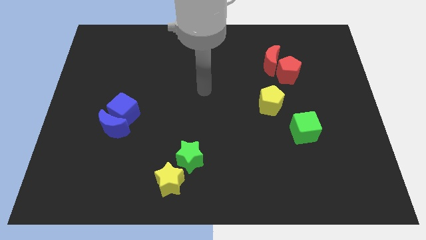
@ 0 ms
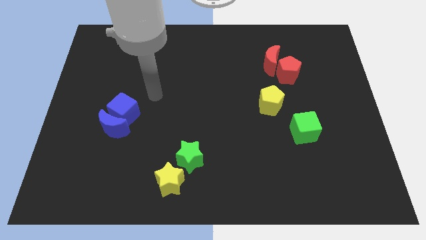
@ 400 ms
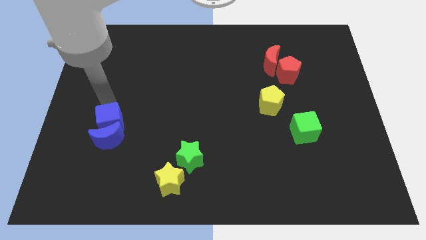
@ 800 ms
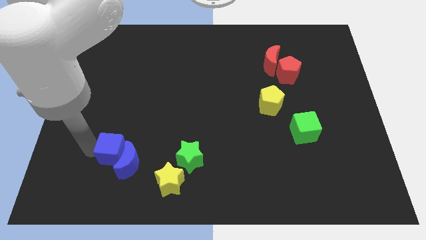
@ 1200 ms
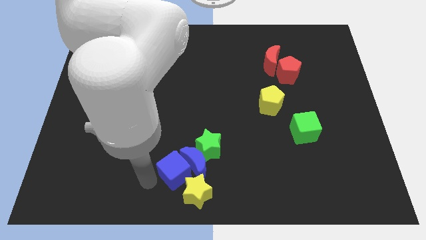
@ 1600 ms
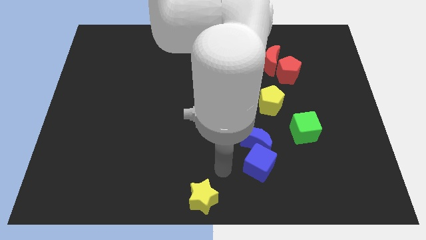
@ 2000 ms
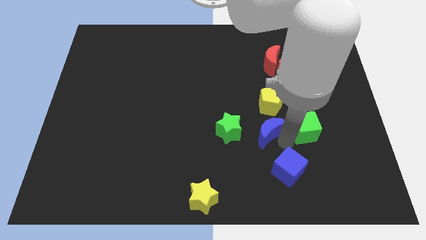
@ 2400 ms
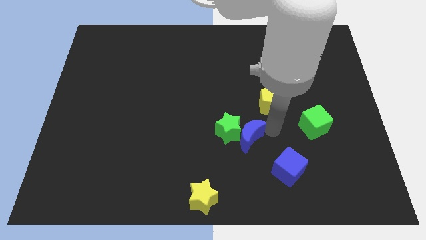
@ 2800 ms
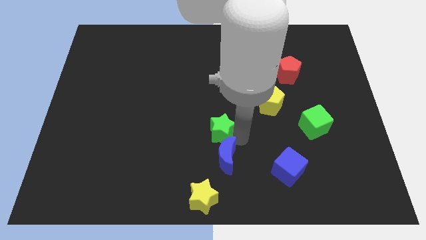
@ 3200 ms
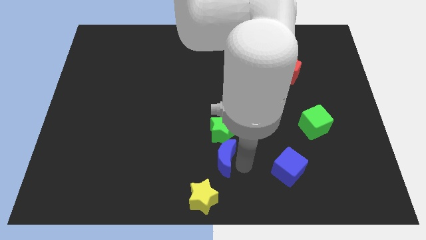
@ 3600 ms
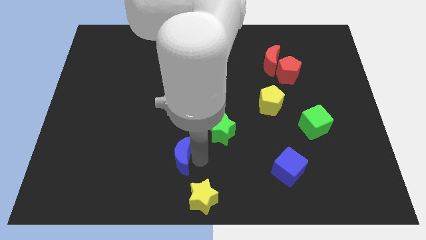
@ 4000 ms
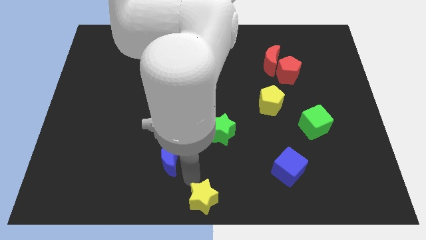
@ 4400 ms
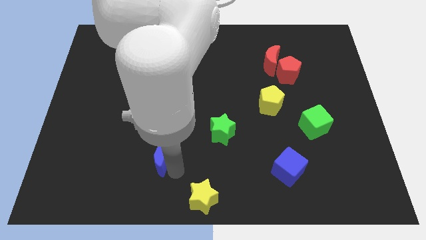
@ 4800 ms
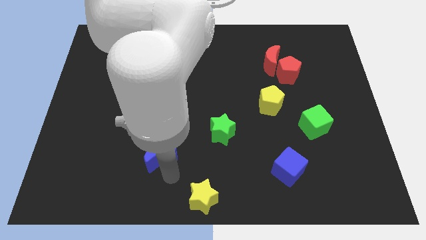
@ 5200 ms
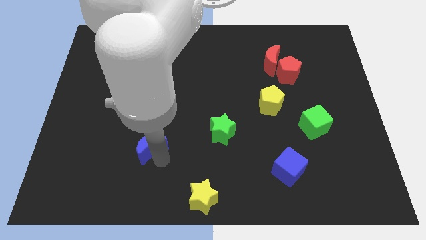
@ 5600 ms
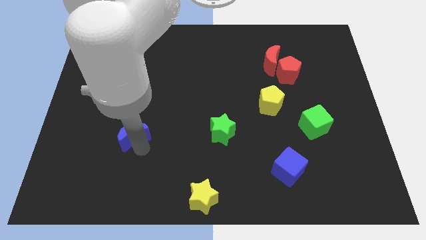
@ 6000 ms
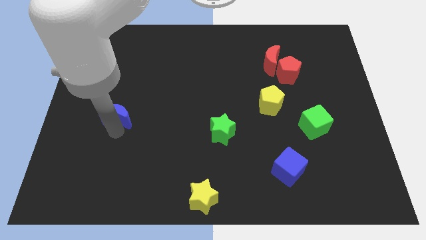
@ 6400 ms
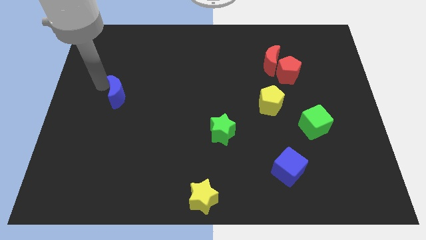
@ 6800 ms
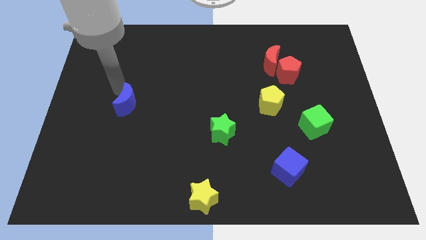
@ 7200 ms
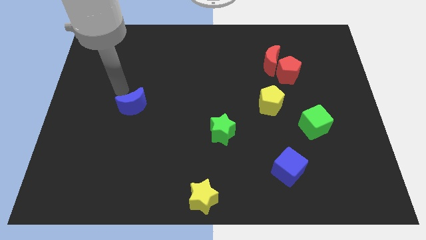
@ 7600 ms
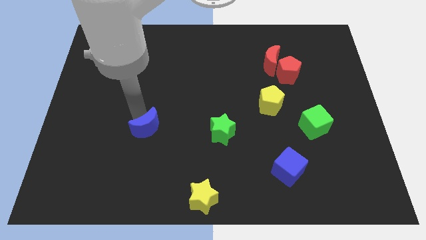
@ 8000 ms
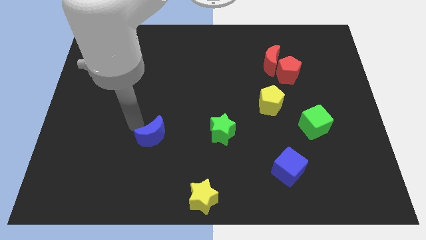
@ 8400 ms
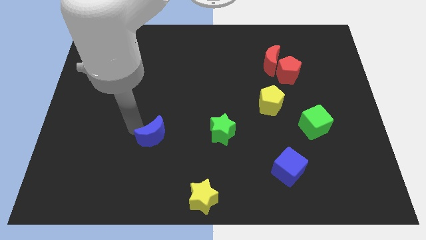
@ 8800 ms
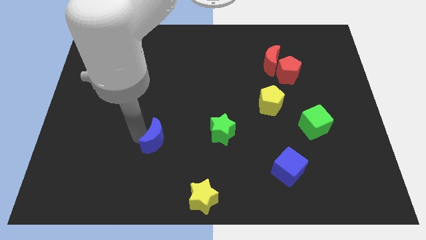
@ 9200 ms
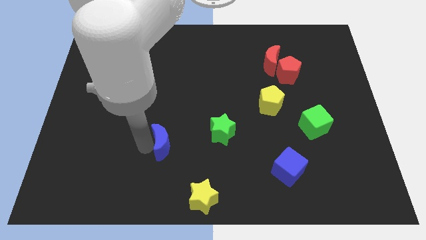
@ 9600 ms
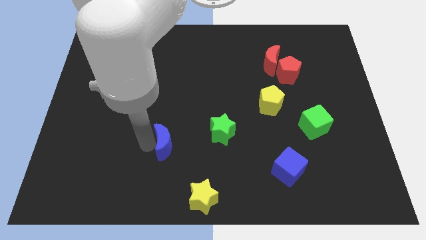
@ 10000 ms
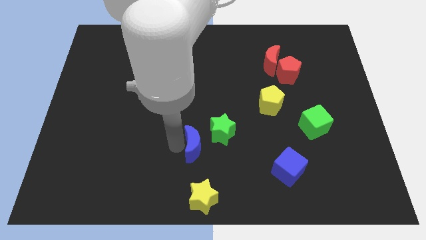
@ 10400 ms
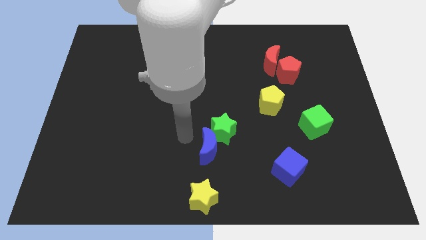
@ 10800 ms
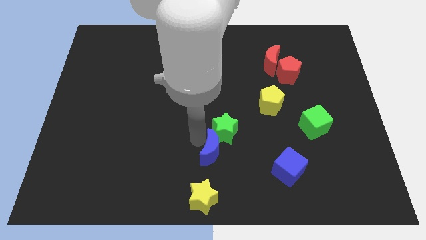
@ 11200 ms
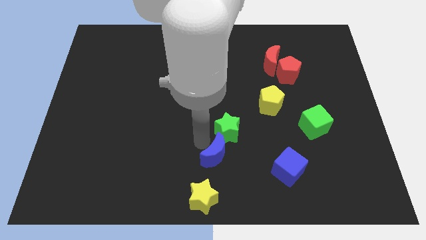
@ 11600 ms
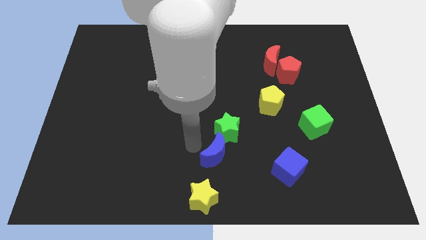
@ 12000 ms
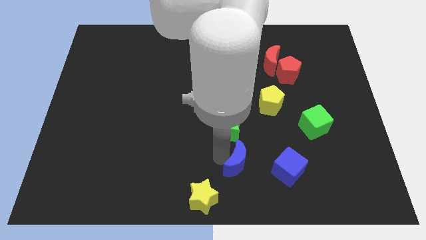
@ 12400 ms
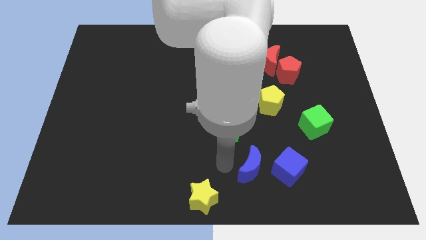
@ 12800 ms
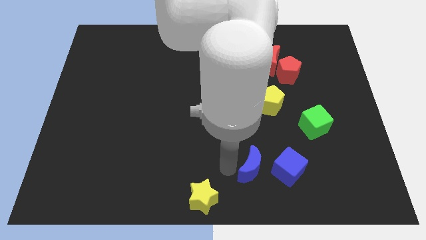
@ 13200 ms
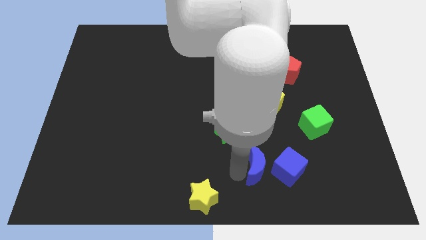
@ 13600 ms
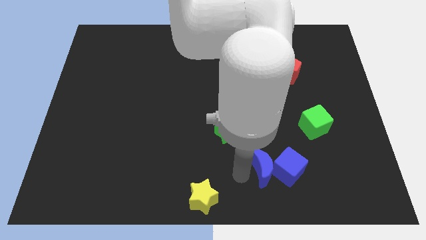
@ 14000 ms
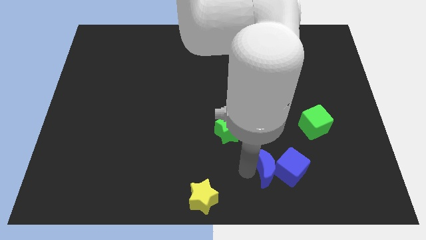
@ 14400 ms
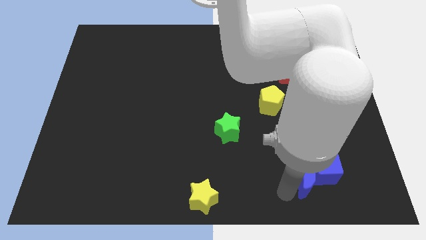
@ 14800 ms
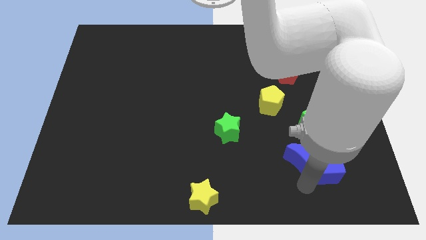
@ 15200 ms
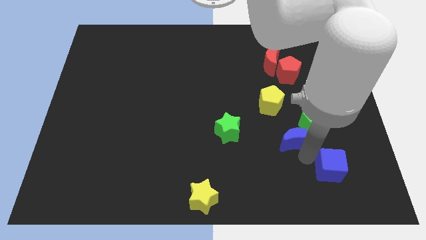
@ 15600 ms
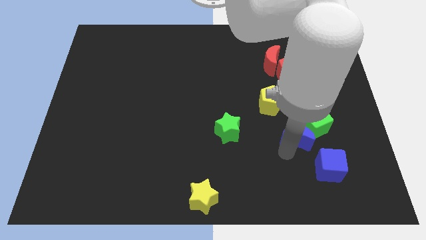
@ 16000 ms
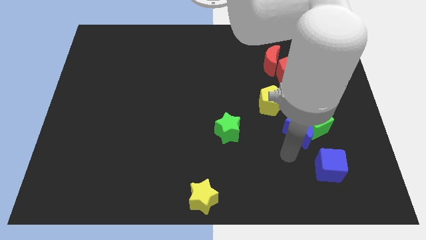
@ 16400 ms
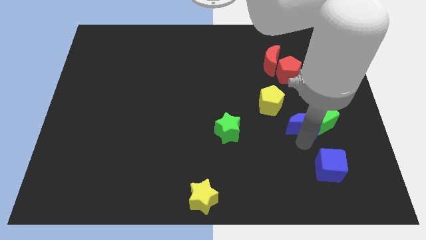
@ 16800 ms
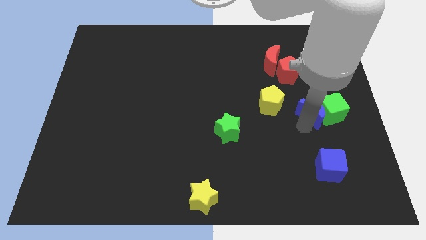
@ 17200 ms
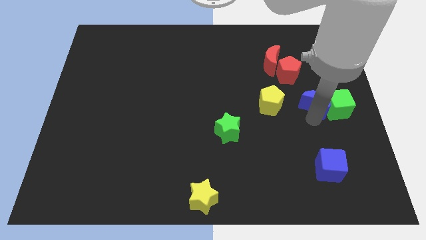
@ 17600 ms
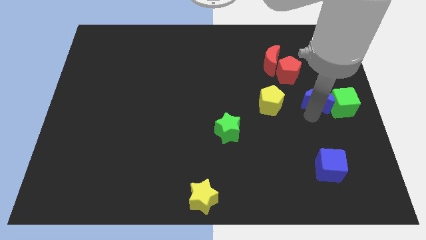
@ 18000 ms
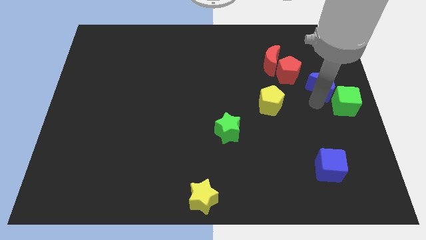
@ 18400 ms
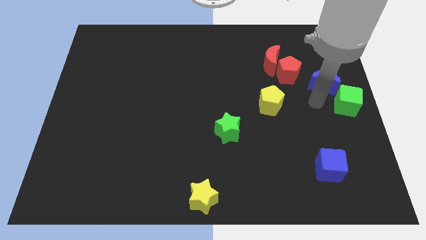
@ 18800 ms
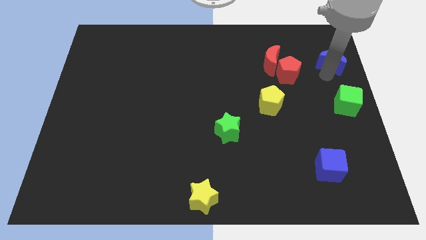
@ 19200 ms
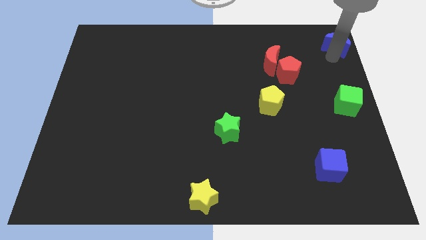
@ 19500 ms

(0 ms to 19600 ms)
put the blue moon to the upper right corner

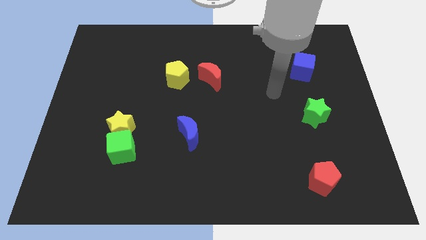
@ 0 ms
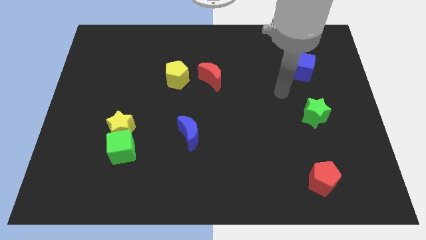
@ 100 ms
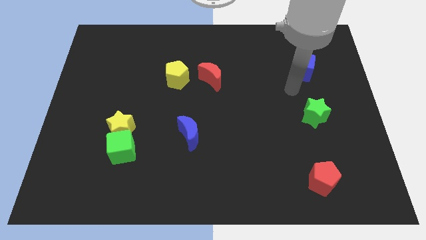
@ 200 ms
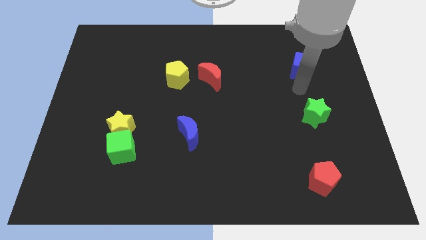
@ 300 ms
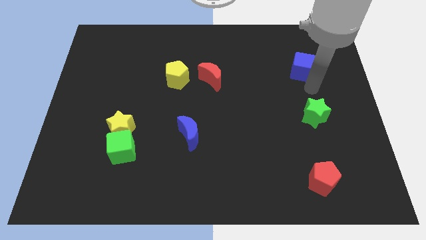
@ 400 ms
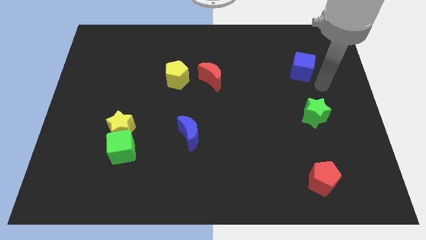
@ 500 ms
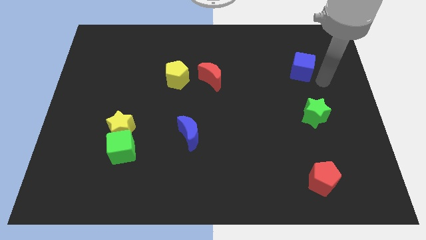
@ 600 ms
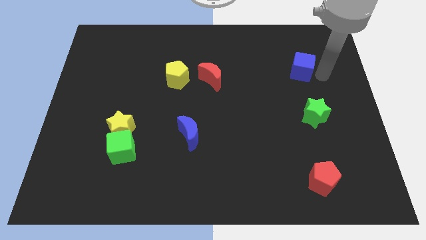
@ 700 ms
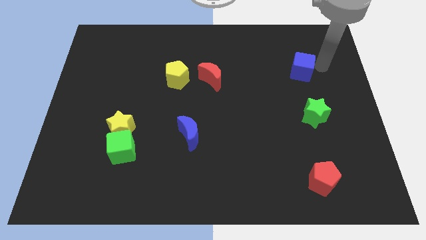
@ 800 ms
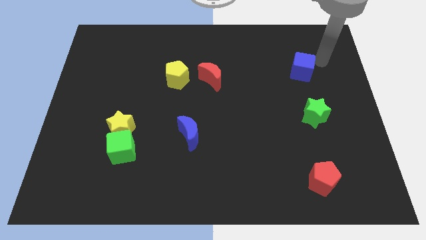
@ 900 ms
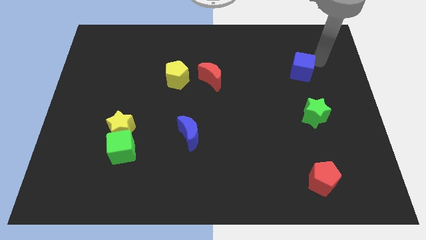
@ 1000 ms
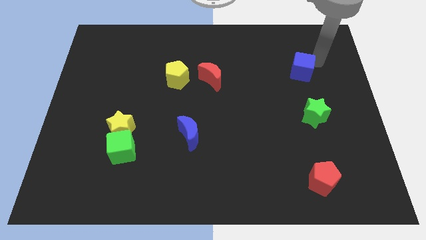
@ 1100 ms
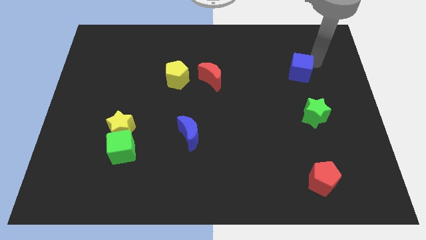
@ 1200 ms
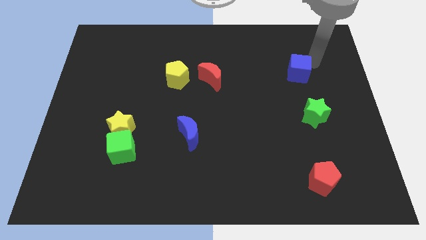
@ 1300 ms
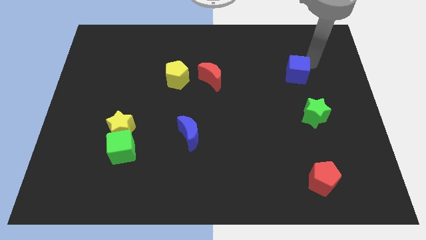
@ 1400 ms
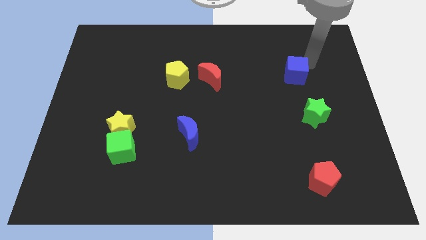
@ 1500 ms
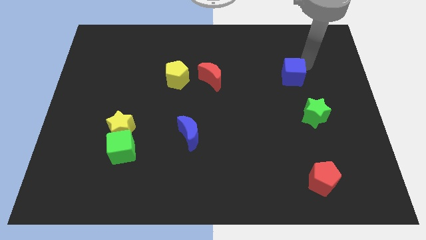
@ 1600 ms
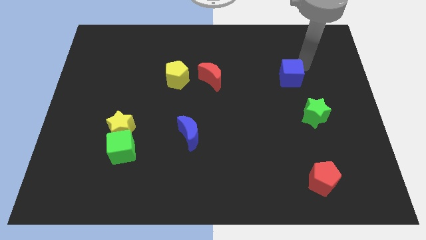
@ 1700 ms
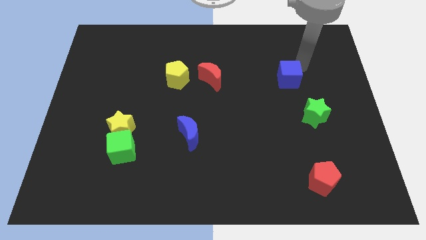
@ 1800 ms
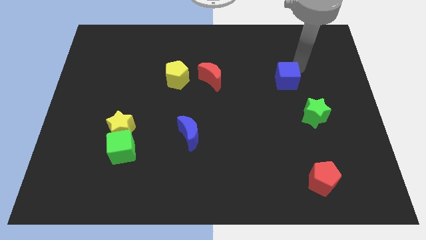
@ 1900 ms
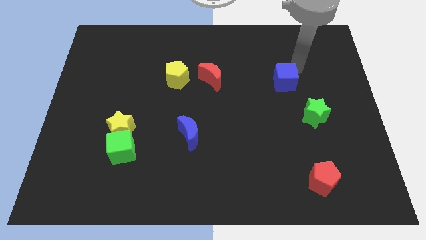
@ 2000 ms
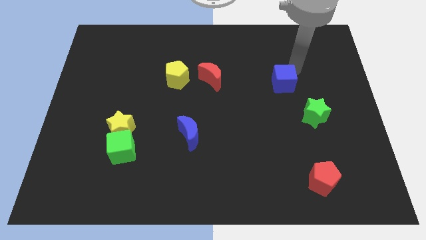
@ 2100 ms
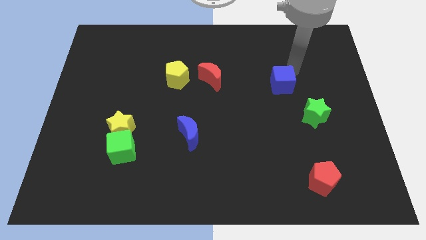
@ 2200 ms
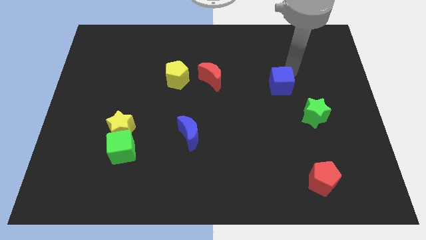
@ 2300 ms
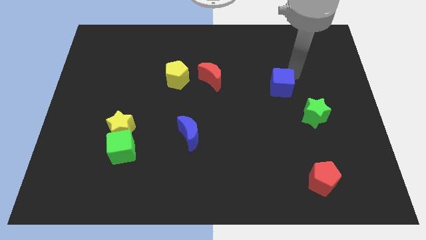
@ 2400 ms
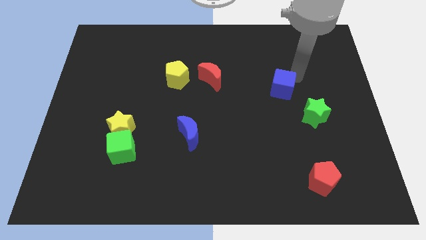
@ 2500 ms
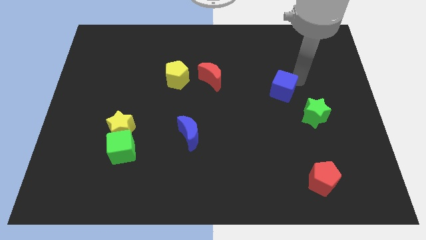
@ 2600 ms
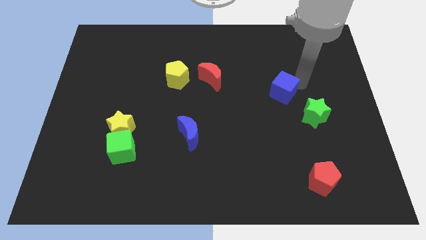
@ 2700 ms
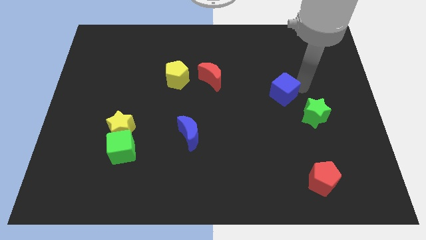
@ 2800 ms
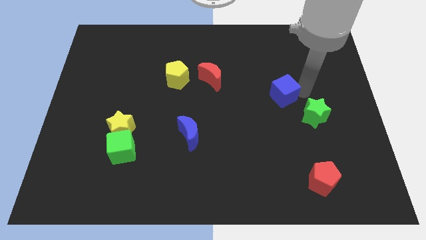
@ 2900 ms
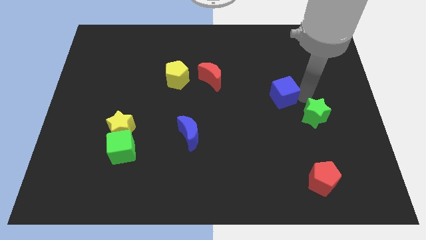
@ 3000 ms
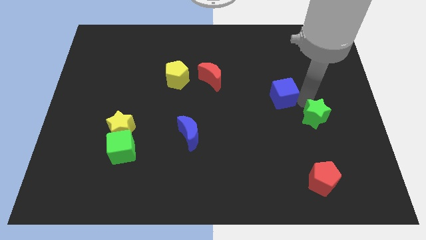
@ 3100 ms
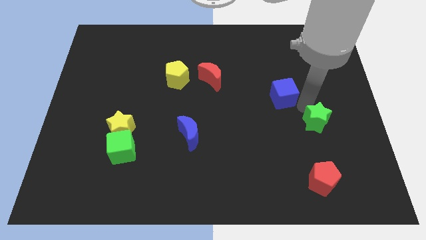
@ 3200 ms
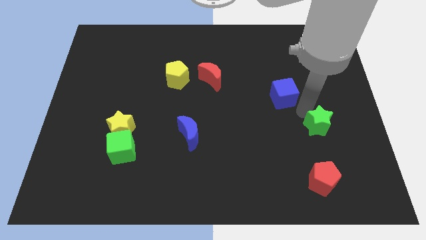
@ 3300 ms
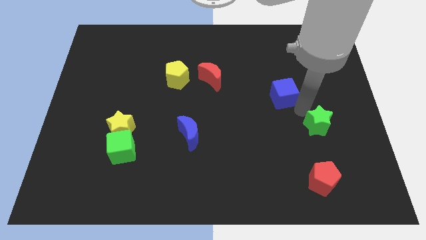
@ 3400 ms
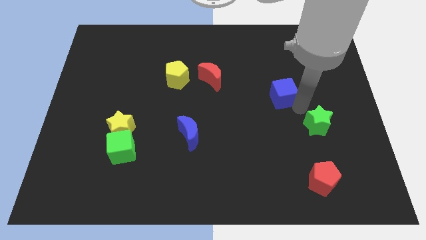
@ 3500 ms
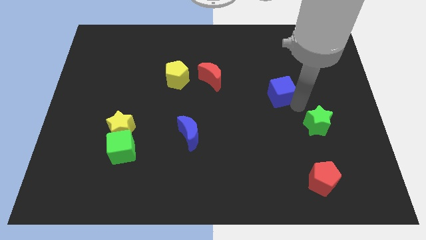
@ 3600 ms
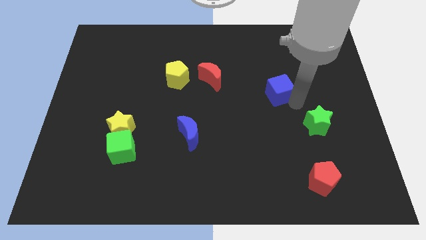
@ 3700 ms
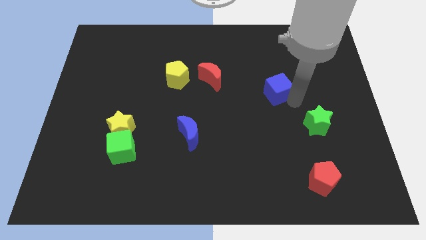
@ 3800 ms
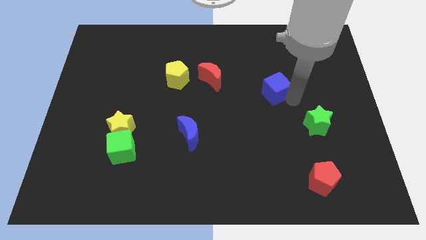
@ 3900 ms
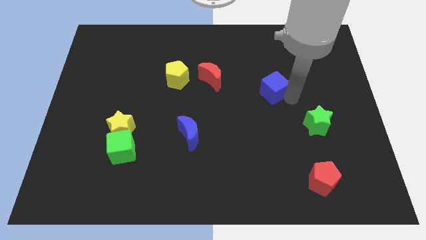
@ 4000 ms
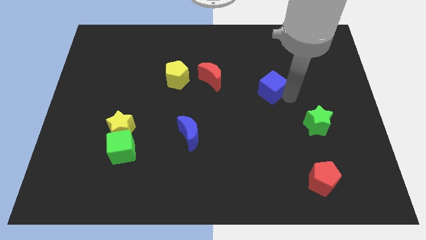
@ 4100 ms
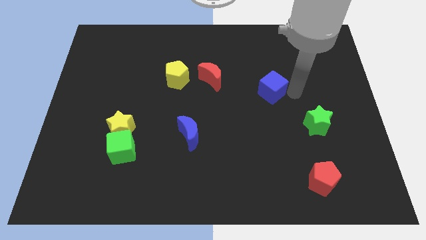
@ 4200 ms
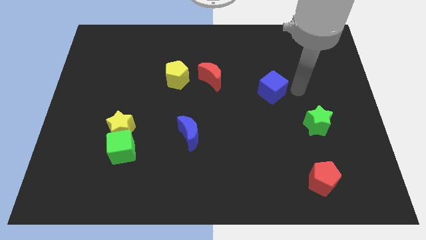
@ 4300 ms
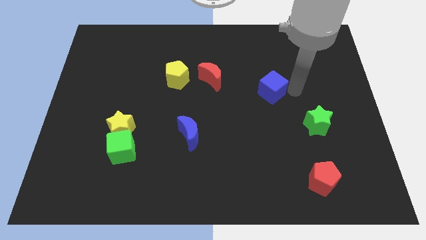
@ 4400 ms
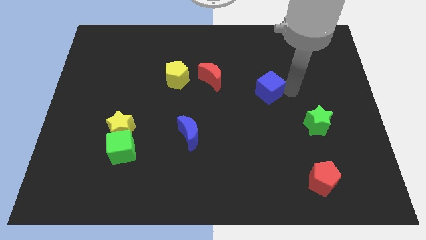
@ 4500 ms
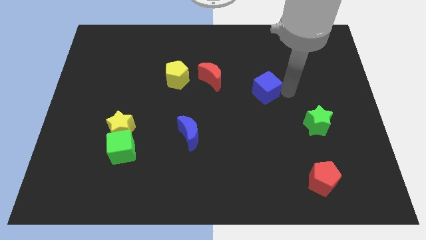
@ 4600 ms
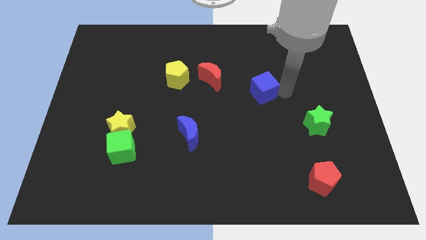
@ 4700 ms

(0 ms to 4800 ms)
slide the blue cube to the middle
